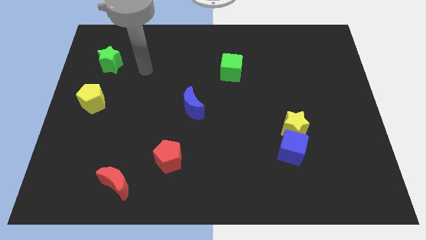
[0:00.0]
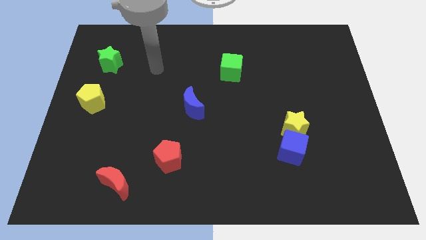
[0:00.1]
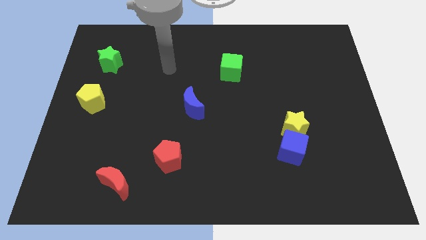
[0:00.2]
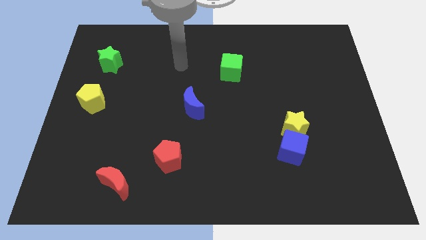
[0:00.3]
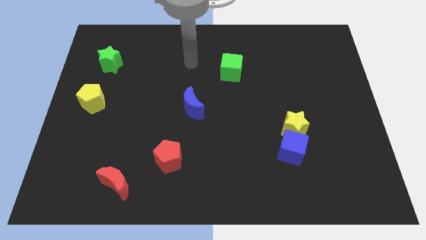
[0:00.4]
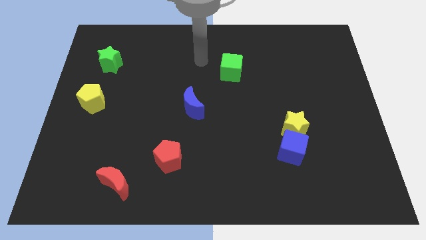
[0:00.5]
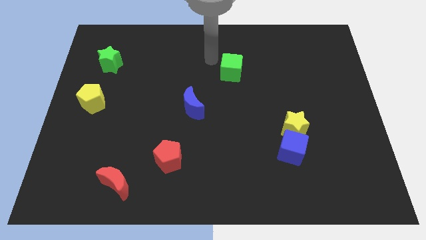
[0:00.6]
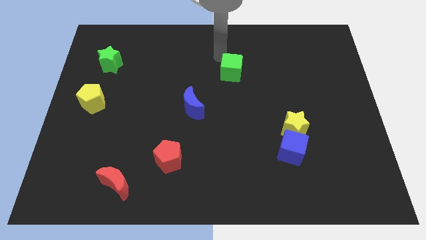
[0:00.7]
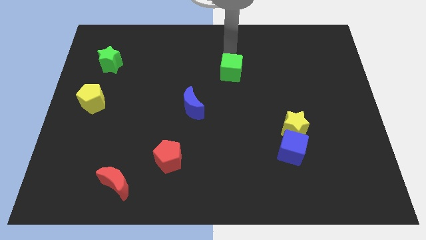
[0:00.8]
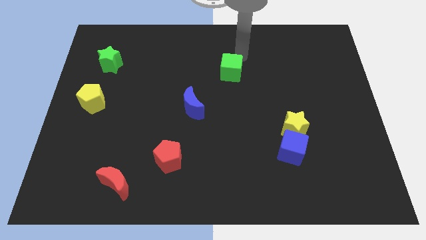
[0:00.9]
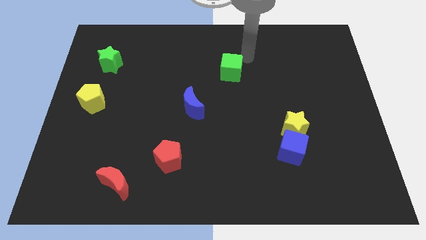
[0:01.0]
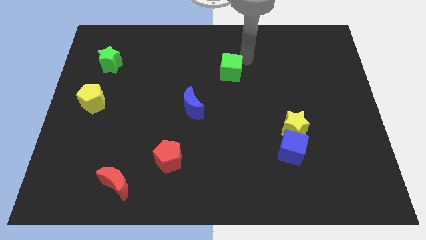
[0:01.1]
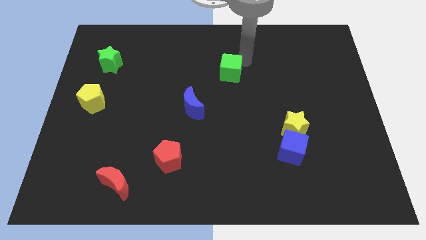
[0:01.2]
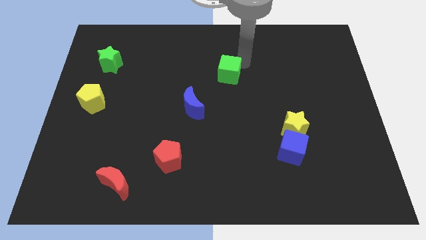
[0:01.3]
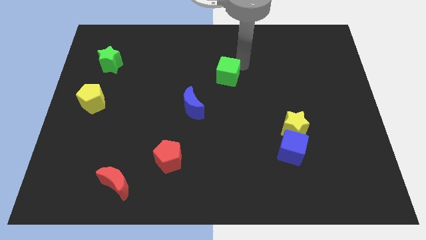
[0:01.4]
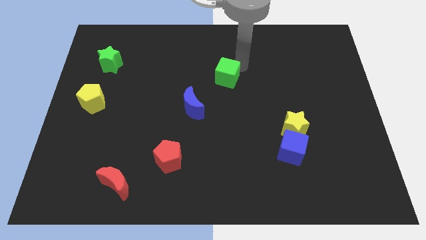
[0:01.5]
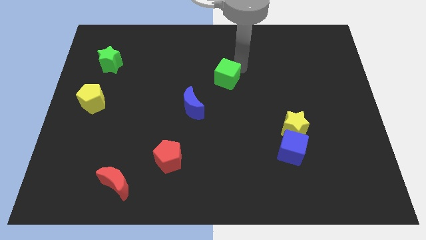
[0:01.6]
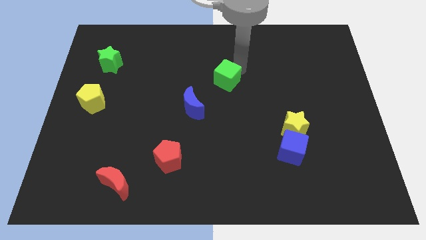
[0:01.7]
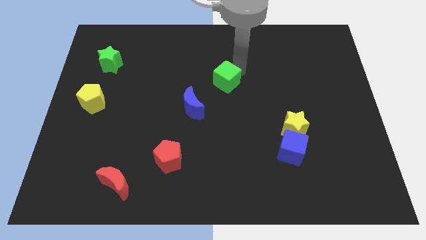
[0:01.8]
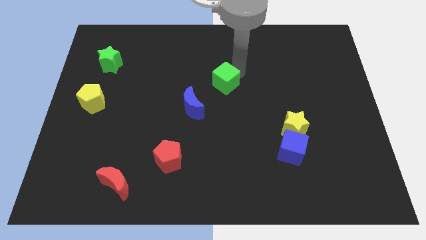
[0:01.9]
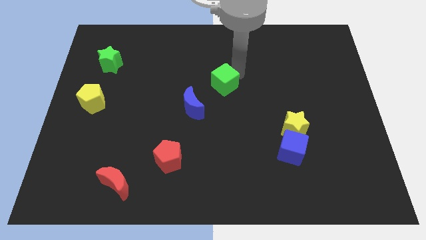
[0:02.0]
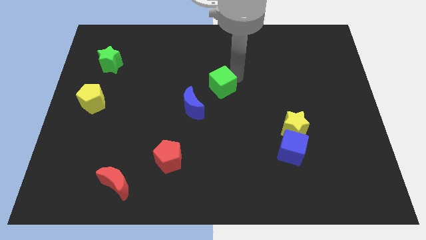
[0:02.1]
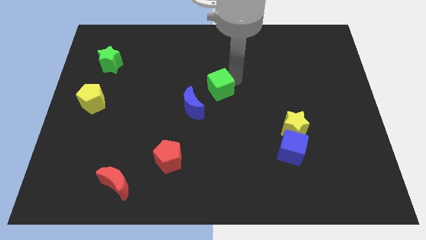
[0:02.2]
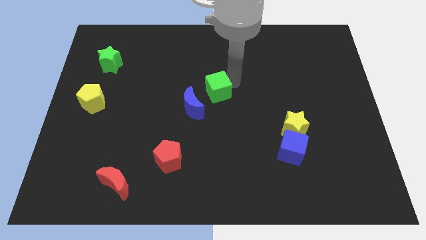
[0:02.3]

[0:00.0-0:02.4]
slightly move the green cube downwards and left diagonally

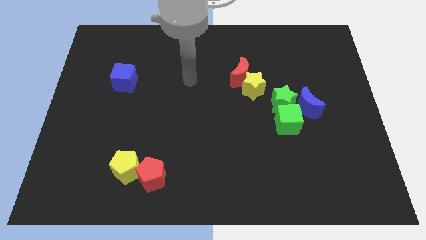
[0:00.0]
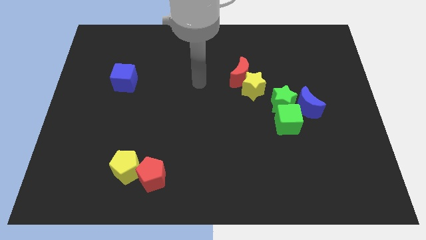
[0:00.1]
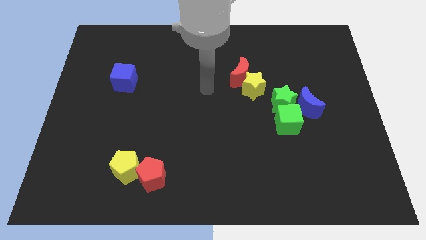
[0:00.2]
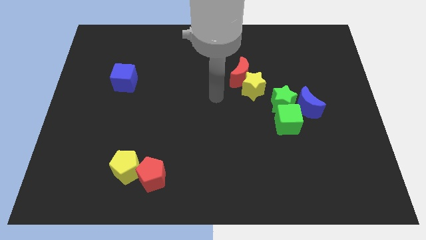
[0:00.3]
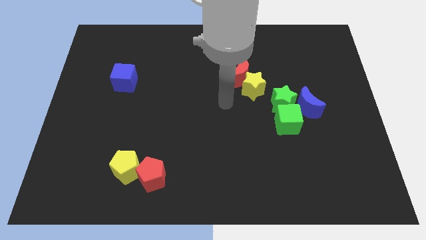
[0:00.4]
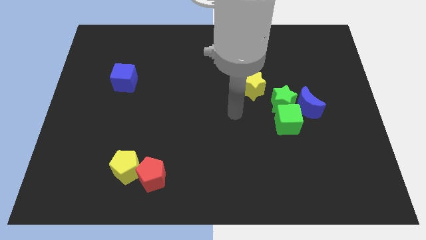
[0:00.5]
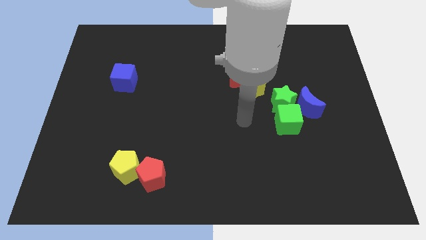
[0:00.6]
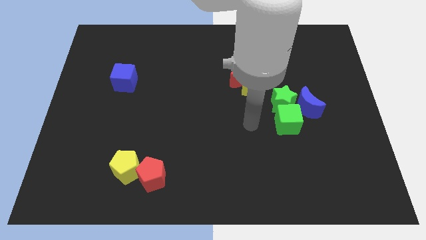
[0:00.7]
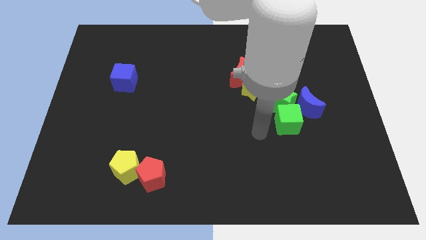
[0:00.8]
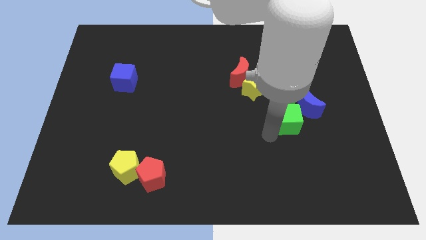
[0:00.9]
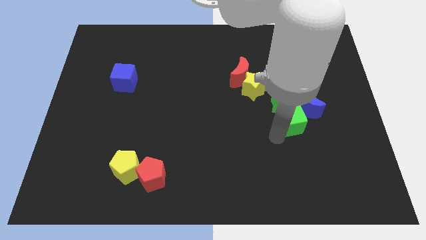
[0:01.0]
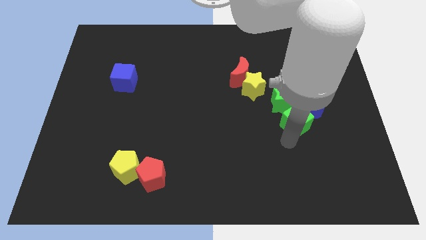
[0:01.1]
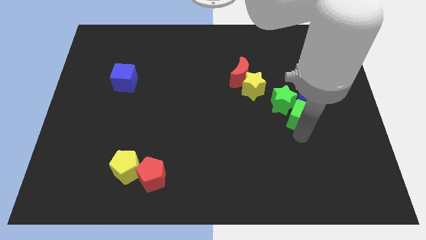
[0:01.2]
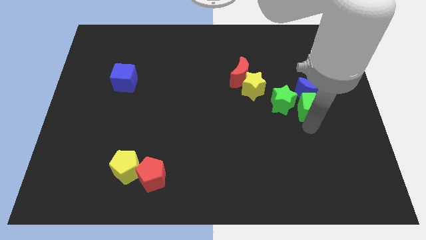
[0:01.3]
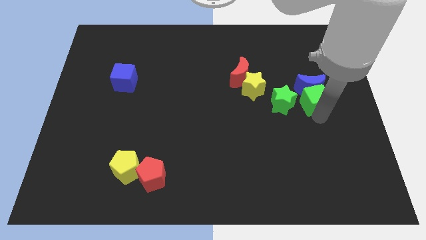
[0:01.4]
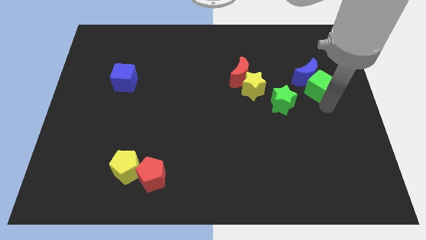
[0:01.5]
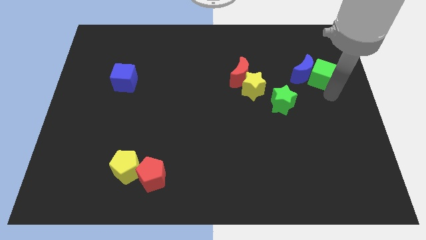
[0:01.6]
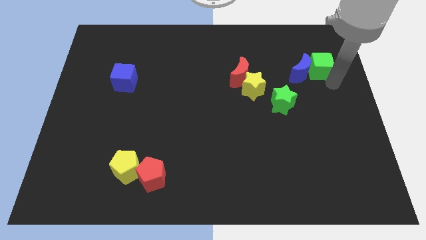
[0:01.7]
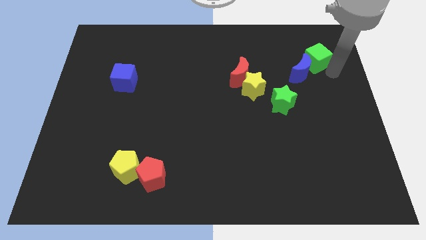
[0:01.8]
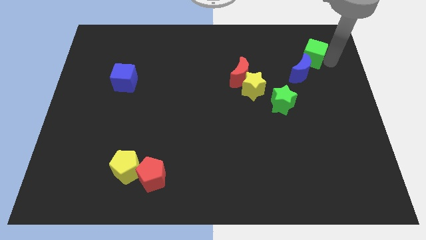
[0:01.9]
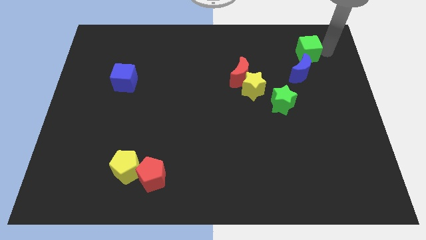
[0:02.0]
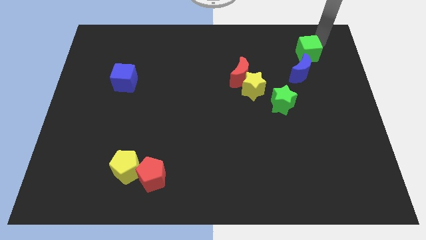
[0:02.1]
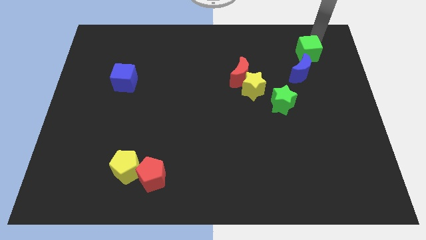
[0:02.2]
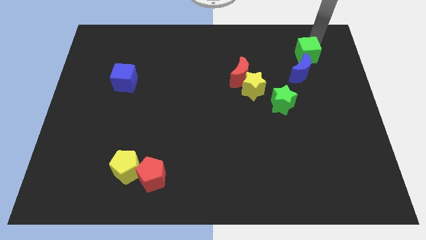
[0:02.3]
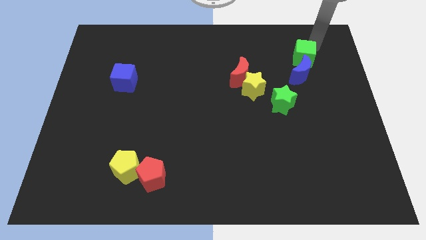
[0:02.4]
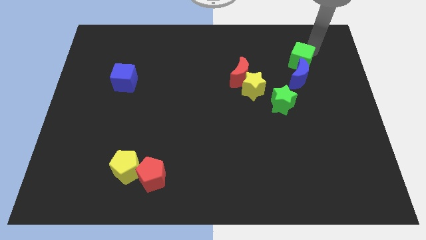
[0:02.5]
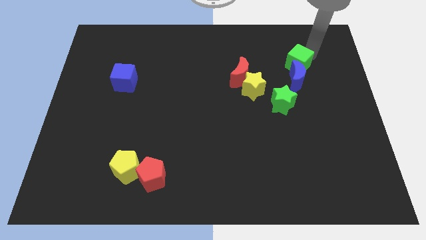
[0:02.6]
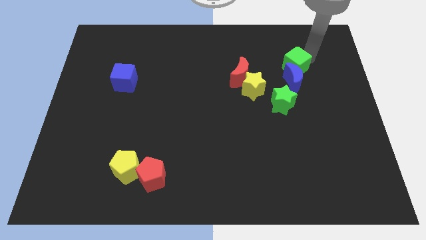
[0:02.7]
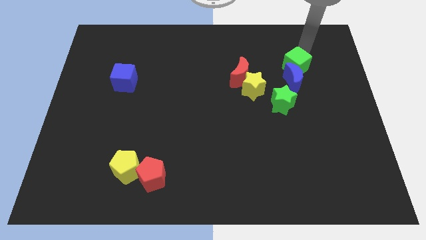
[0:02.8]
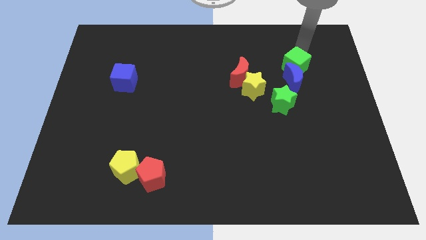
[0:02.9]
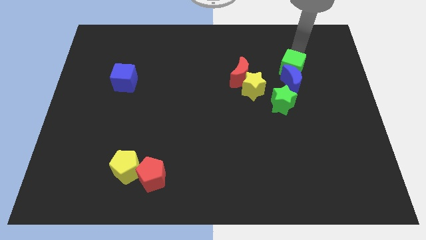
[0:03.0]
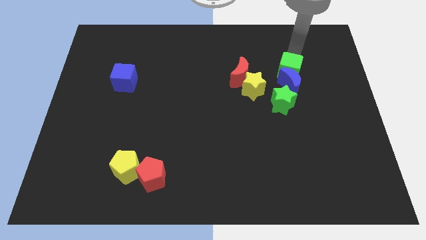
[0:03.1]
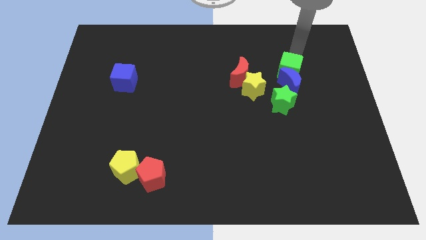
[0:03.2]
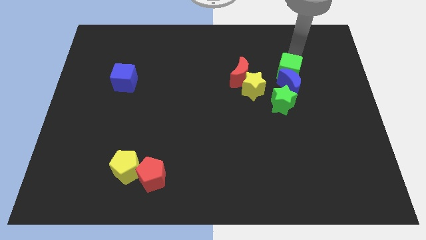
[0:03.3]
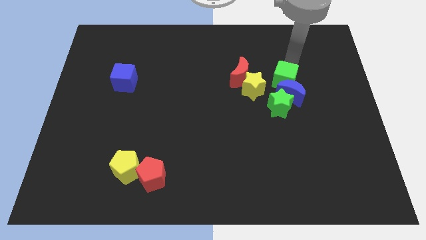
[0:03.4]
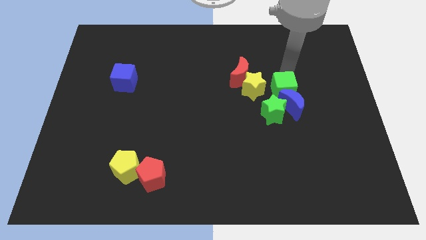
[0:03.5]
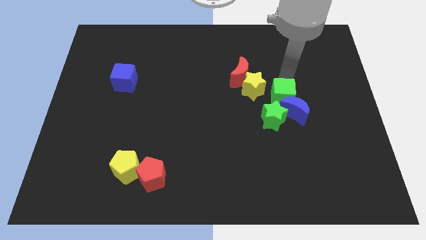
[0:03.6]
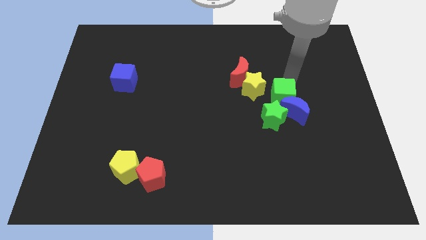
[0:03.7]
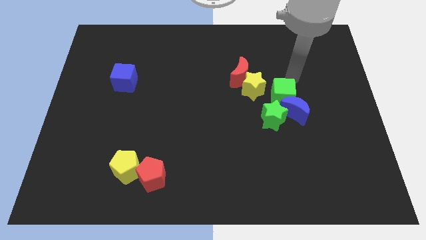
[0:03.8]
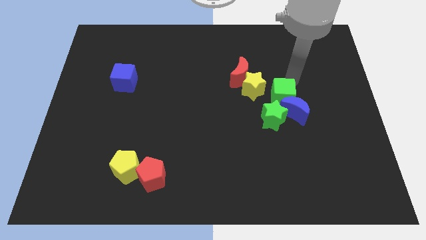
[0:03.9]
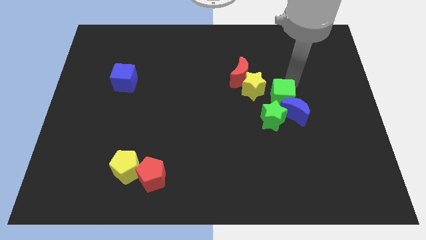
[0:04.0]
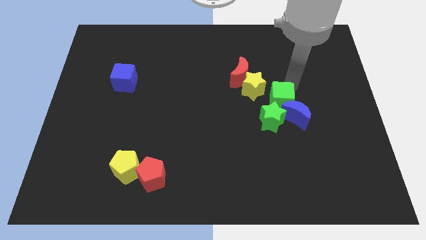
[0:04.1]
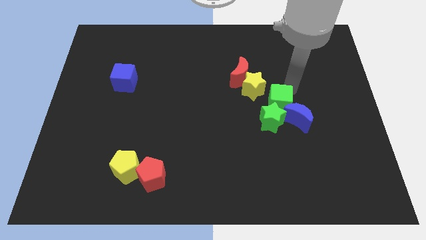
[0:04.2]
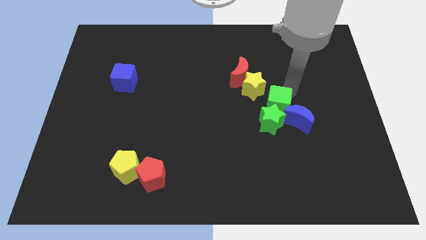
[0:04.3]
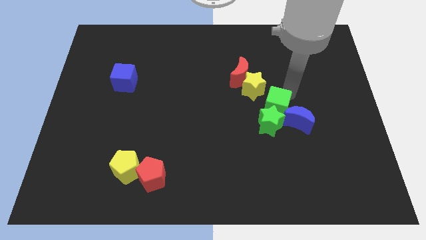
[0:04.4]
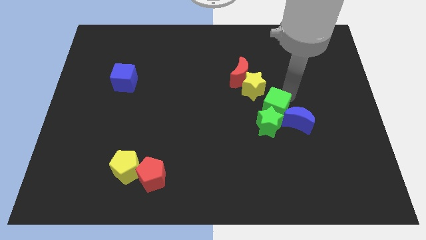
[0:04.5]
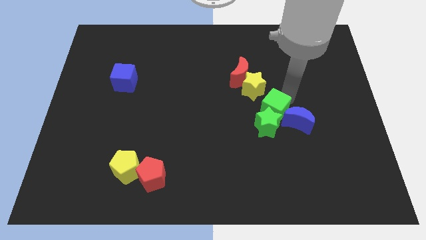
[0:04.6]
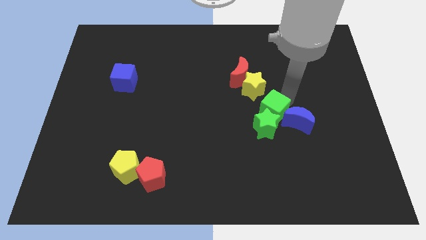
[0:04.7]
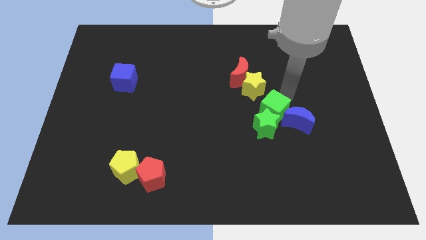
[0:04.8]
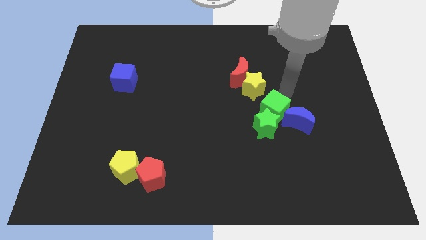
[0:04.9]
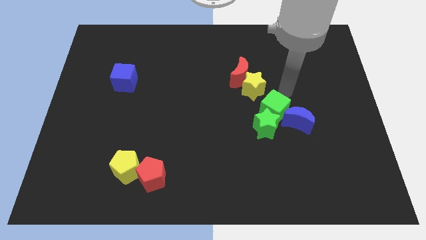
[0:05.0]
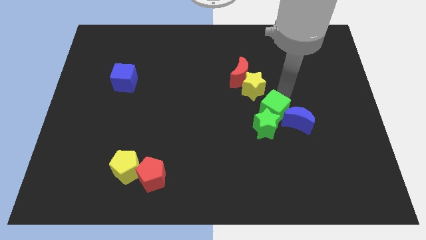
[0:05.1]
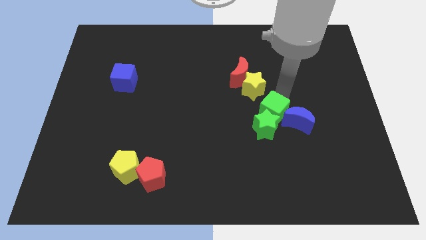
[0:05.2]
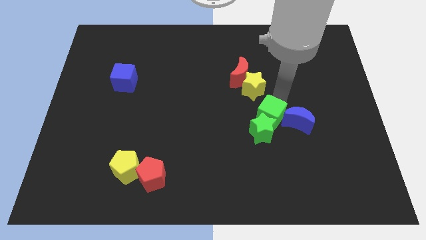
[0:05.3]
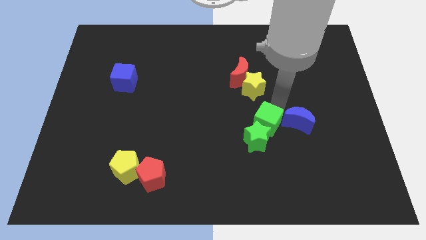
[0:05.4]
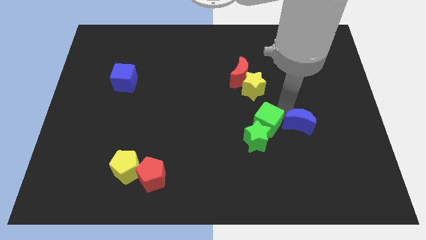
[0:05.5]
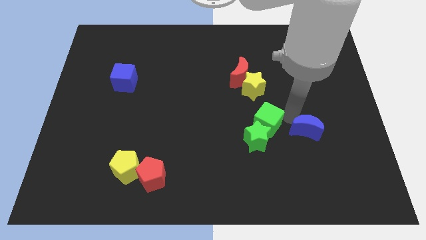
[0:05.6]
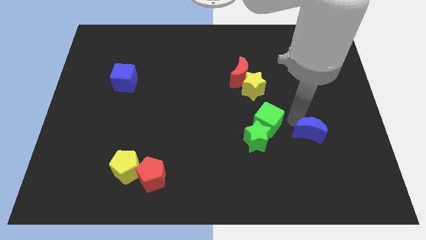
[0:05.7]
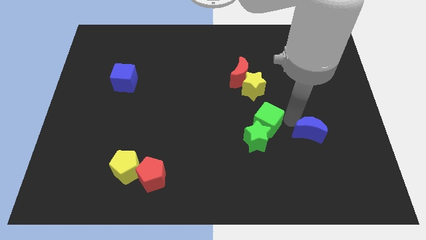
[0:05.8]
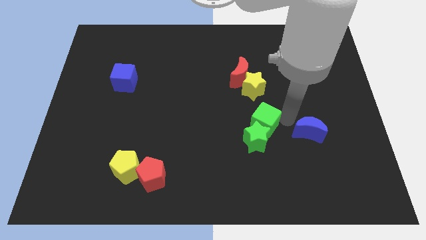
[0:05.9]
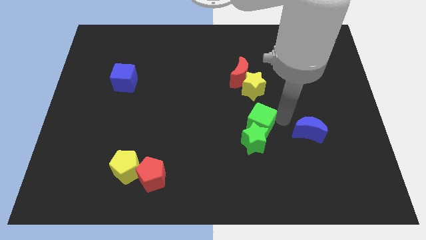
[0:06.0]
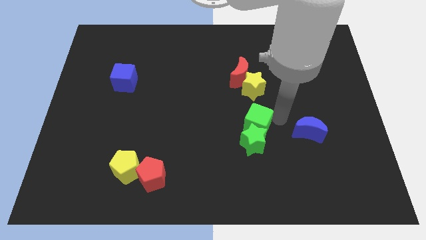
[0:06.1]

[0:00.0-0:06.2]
push the green cube a bit to the left
